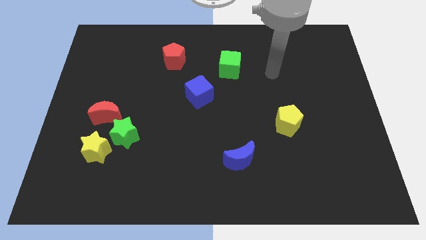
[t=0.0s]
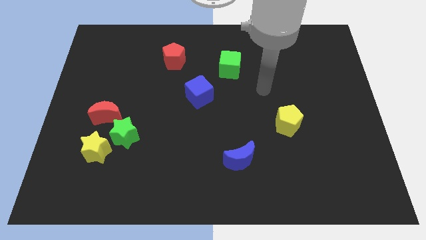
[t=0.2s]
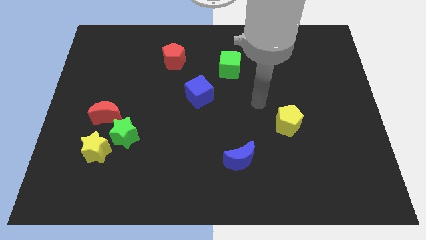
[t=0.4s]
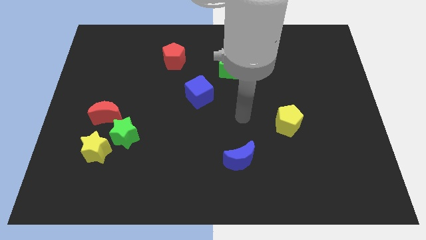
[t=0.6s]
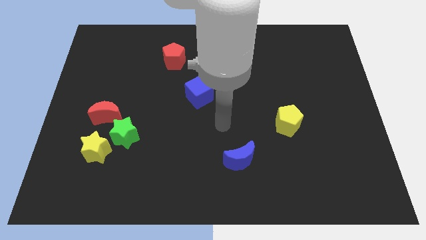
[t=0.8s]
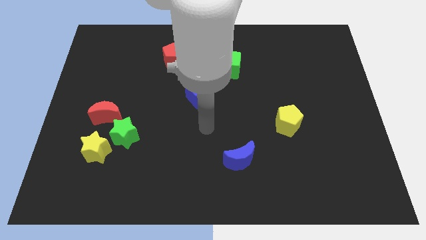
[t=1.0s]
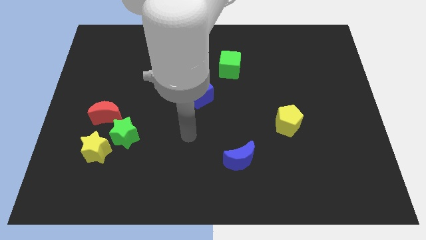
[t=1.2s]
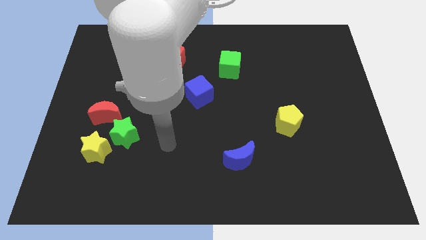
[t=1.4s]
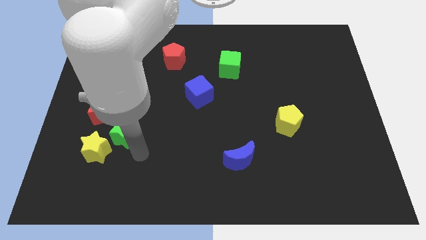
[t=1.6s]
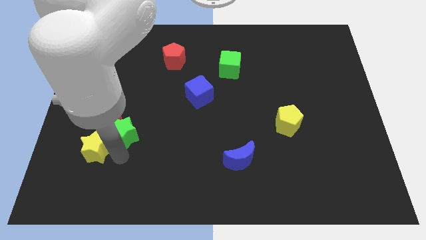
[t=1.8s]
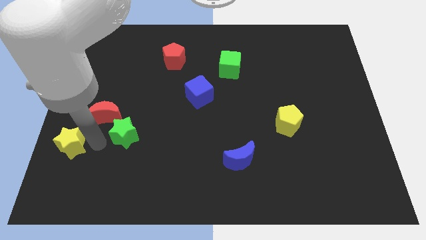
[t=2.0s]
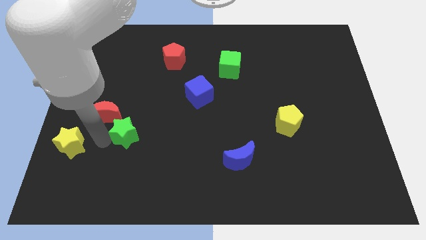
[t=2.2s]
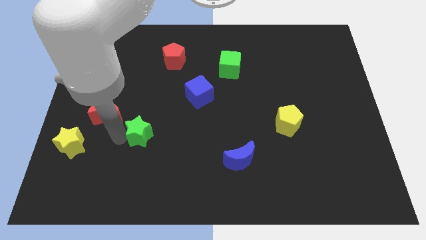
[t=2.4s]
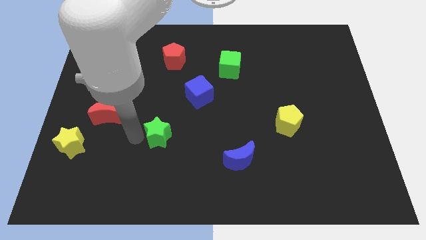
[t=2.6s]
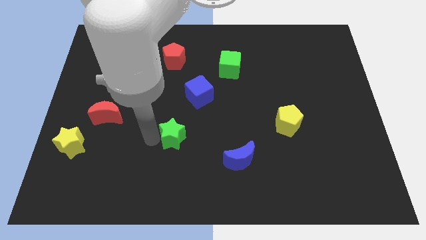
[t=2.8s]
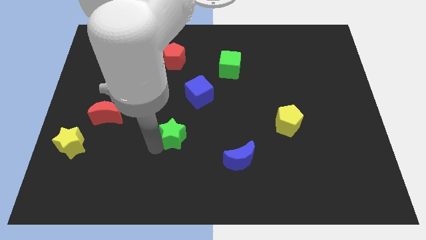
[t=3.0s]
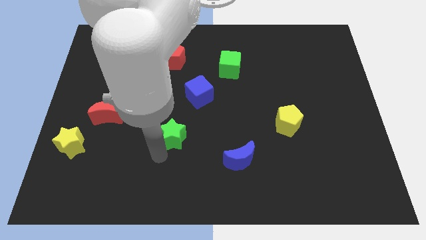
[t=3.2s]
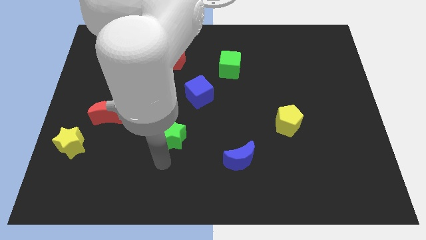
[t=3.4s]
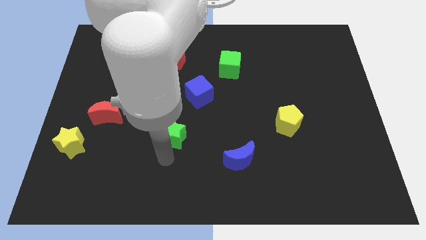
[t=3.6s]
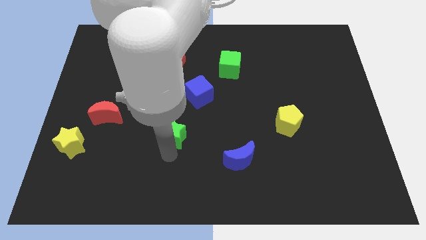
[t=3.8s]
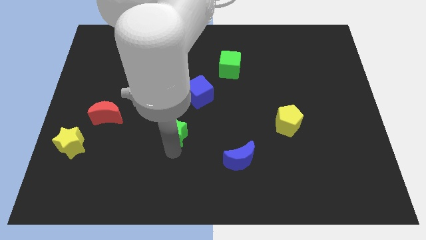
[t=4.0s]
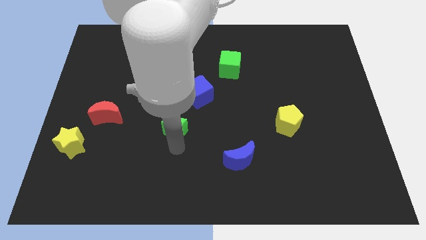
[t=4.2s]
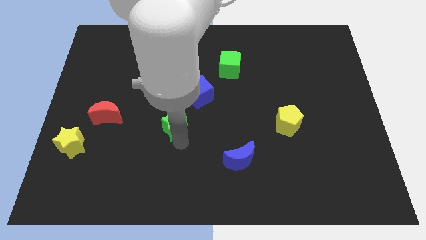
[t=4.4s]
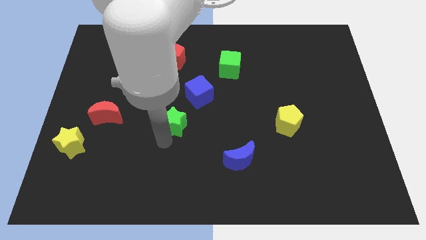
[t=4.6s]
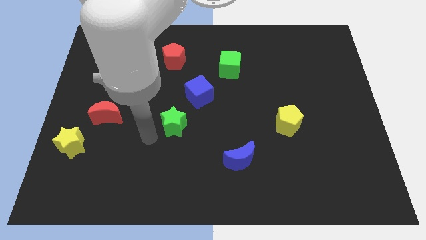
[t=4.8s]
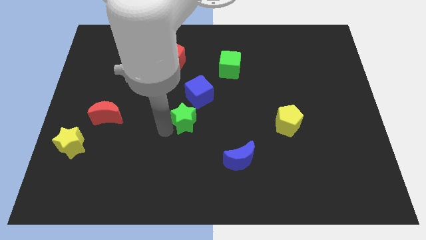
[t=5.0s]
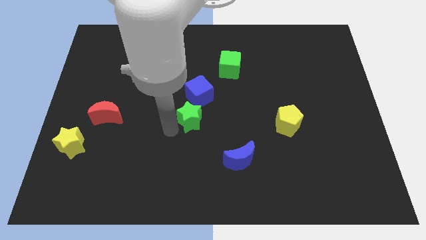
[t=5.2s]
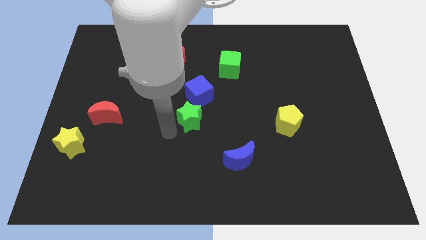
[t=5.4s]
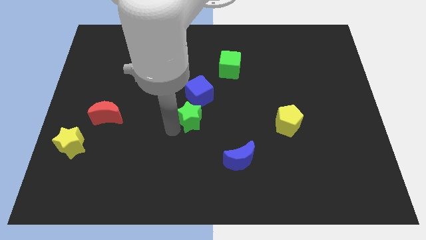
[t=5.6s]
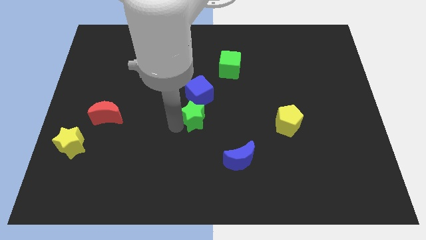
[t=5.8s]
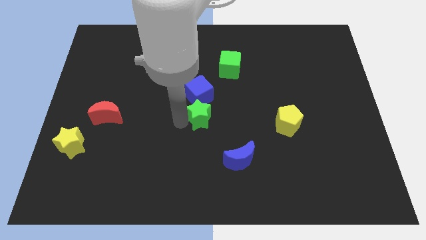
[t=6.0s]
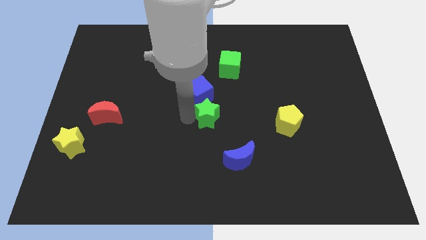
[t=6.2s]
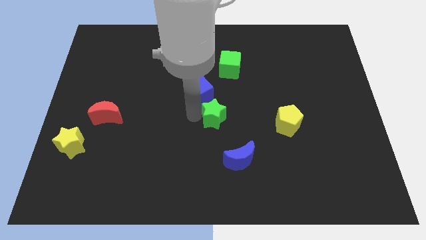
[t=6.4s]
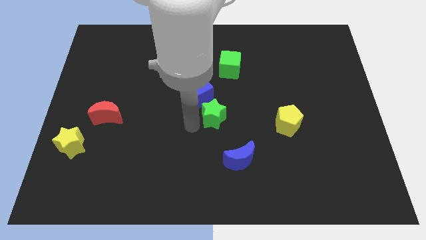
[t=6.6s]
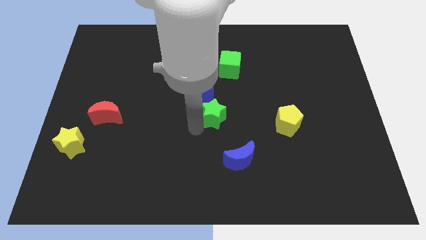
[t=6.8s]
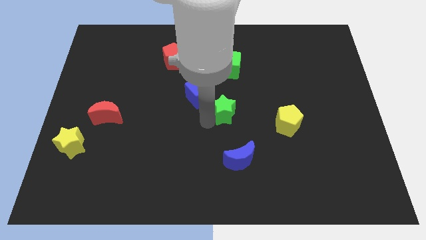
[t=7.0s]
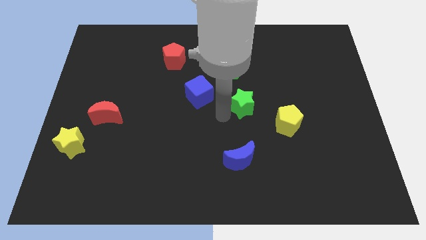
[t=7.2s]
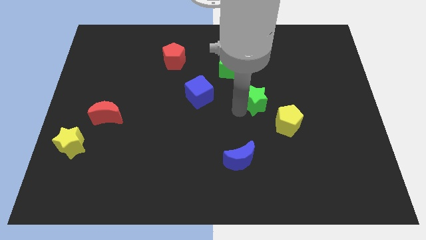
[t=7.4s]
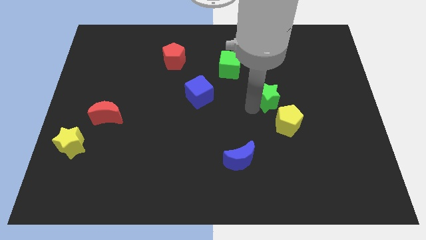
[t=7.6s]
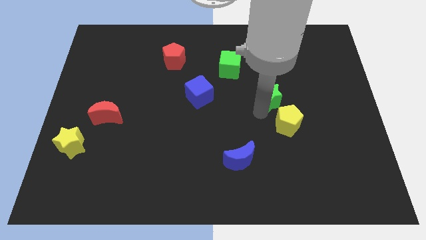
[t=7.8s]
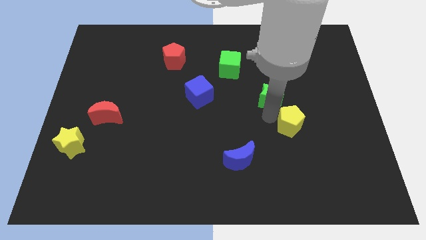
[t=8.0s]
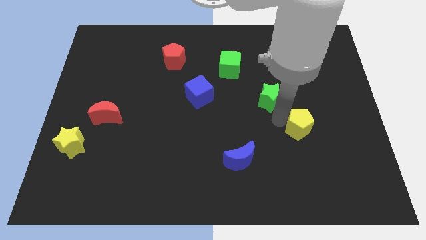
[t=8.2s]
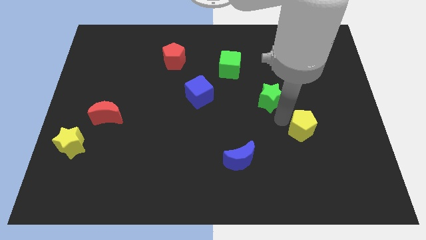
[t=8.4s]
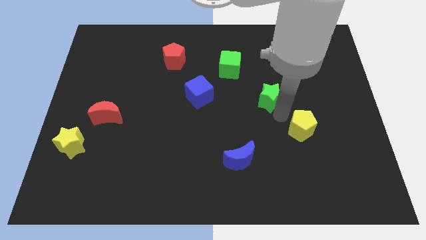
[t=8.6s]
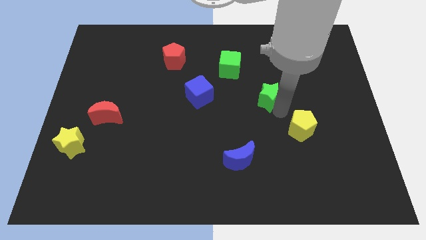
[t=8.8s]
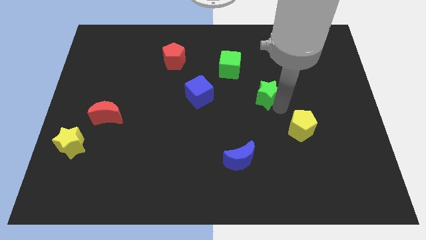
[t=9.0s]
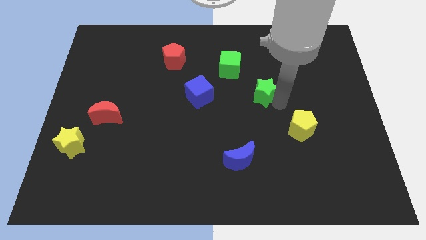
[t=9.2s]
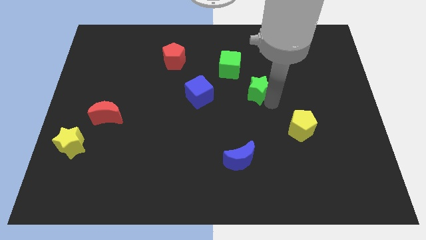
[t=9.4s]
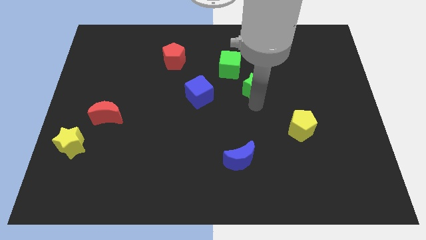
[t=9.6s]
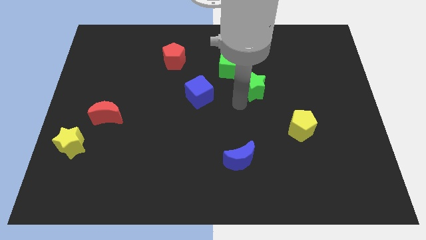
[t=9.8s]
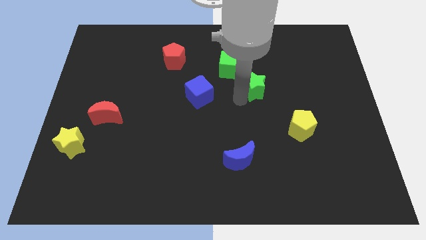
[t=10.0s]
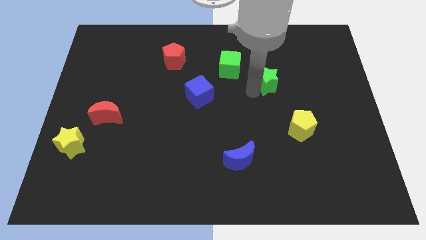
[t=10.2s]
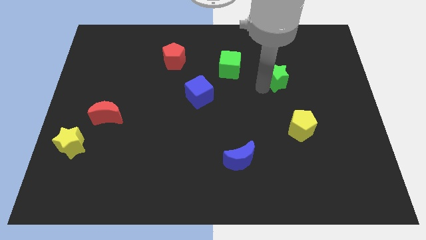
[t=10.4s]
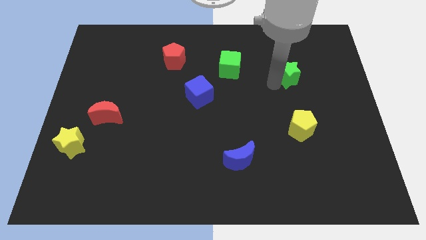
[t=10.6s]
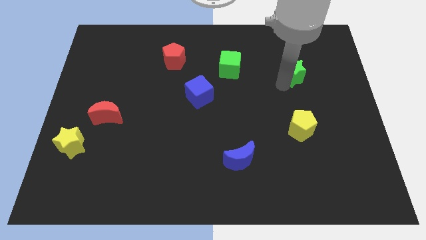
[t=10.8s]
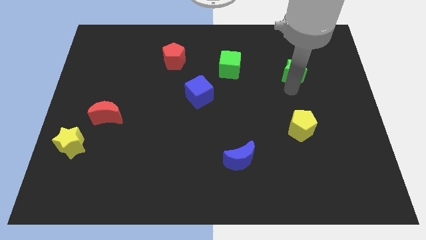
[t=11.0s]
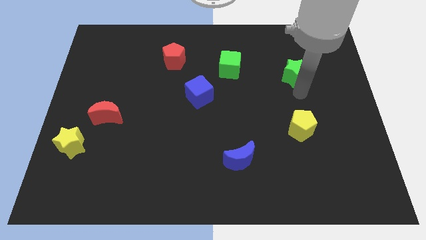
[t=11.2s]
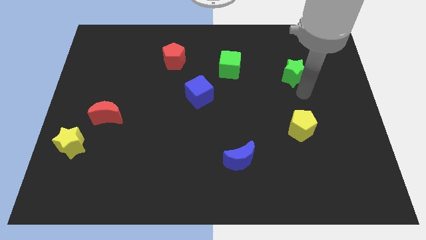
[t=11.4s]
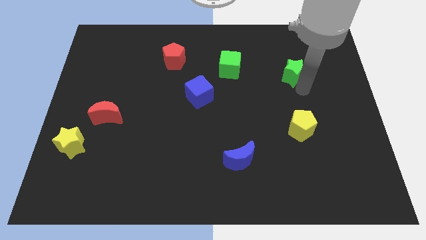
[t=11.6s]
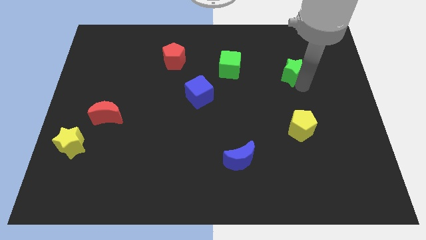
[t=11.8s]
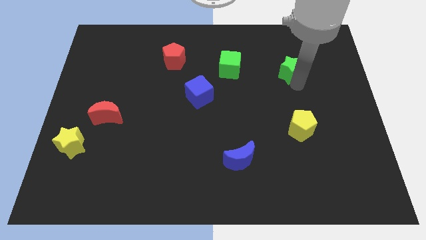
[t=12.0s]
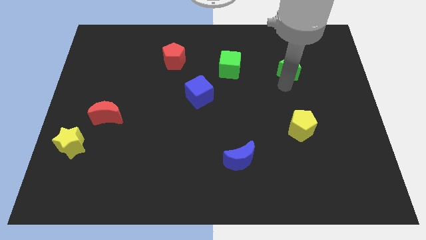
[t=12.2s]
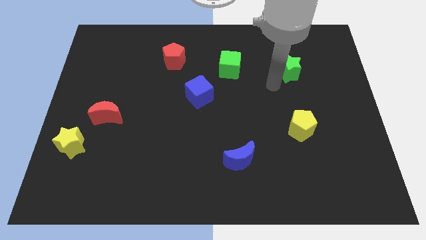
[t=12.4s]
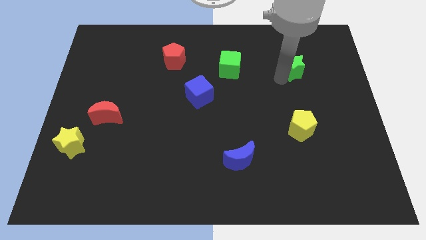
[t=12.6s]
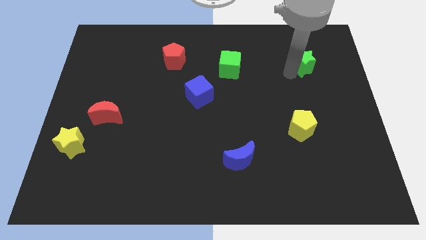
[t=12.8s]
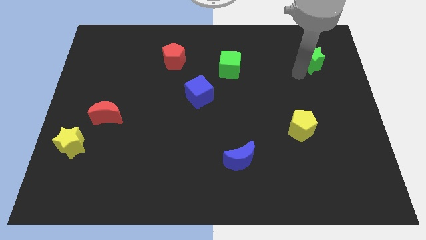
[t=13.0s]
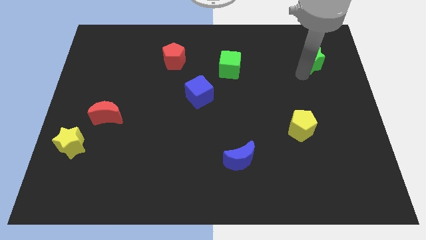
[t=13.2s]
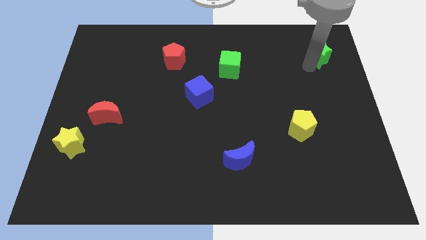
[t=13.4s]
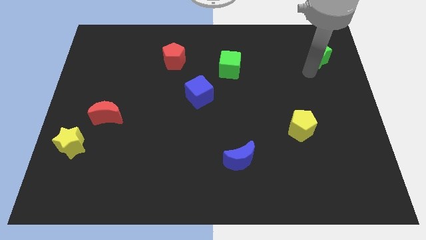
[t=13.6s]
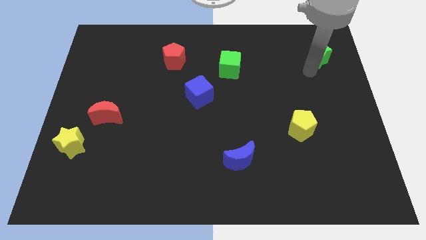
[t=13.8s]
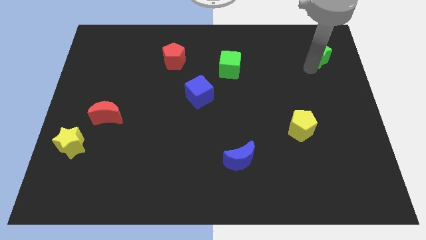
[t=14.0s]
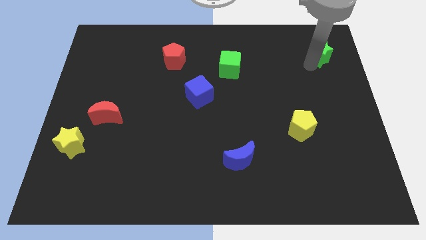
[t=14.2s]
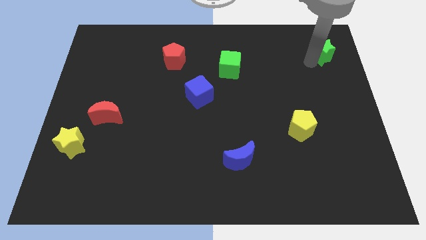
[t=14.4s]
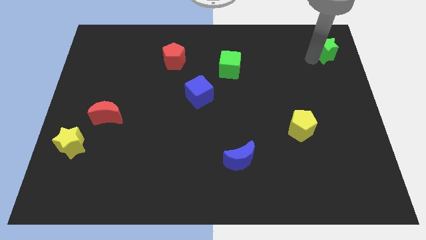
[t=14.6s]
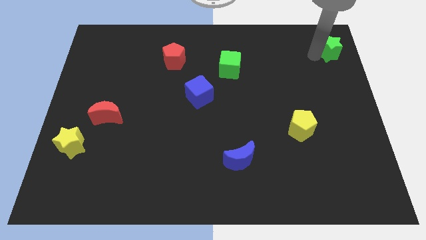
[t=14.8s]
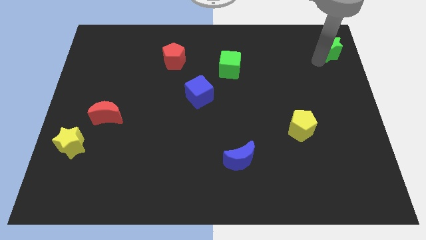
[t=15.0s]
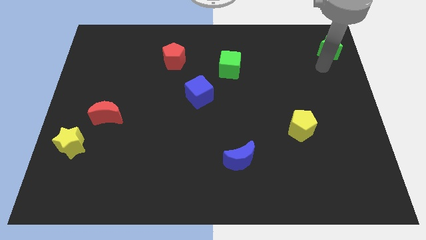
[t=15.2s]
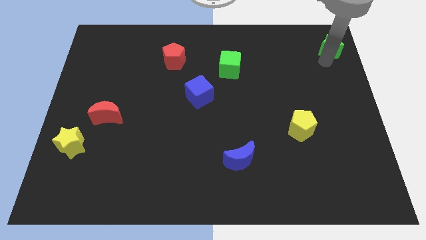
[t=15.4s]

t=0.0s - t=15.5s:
push the green star to the top right of the board
